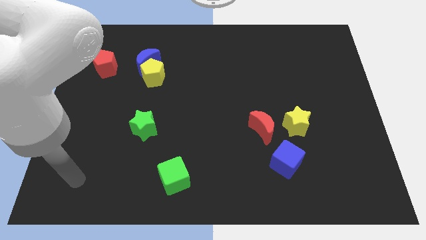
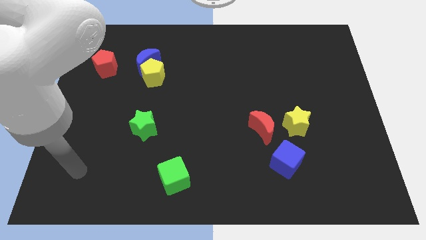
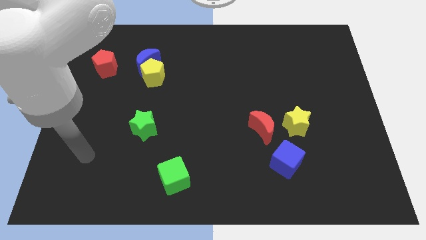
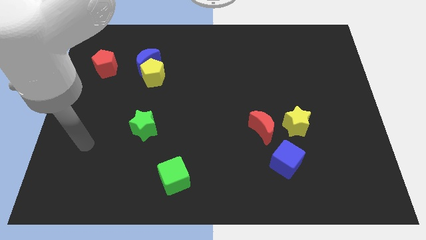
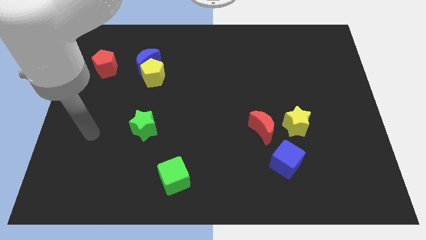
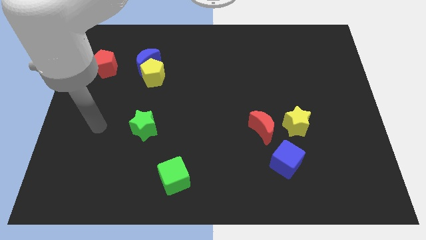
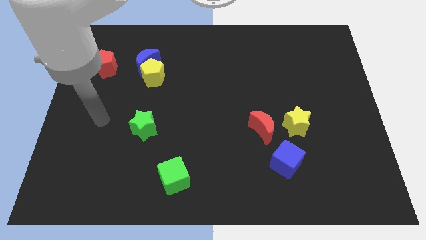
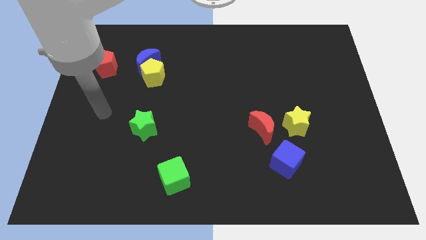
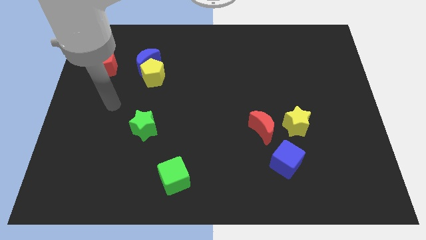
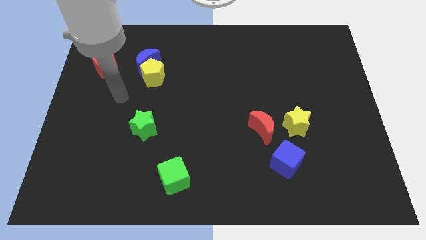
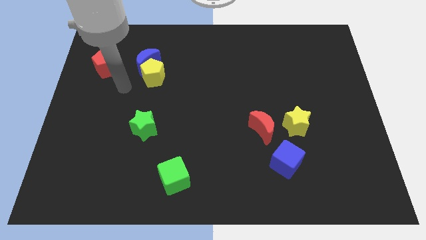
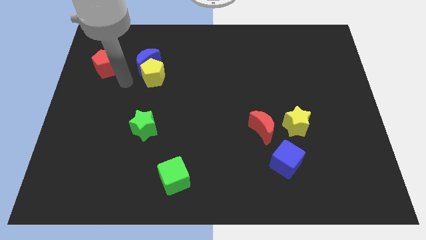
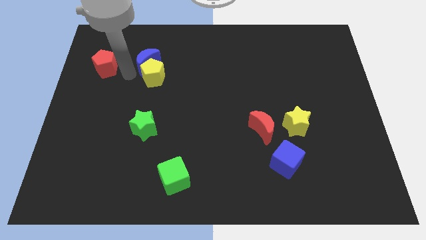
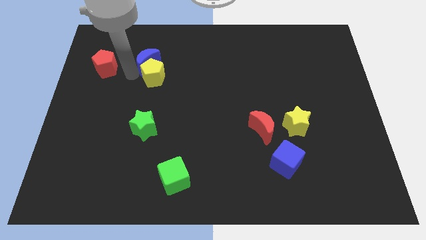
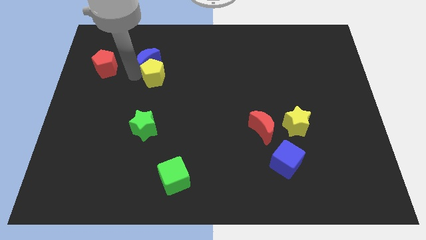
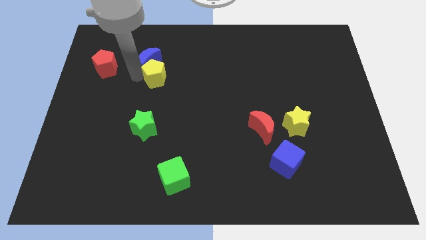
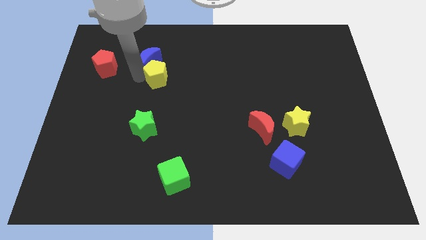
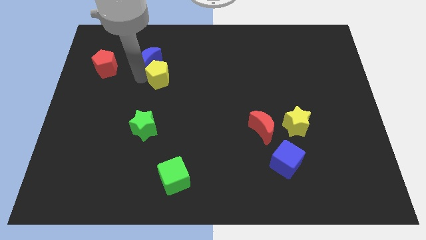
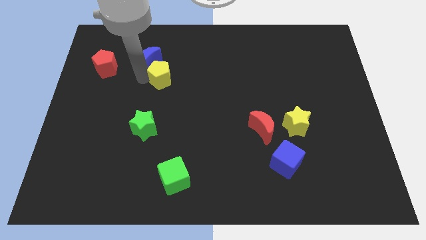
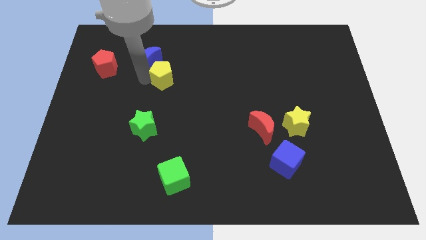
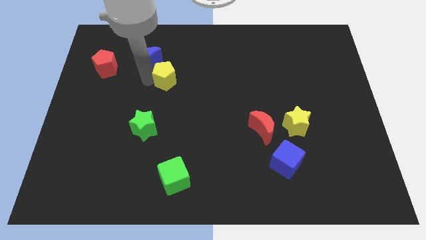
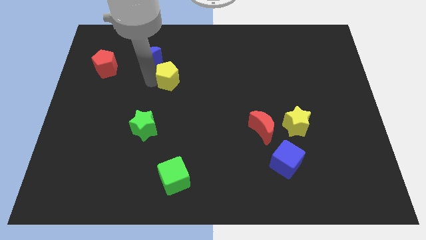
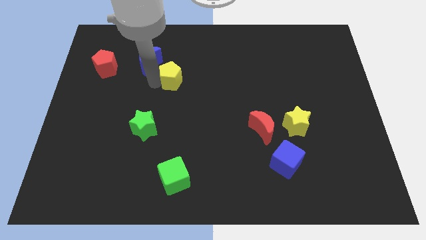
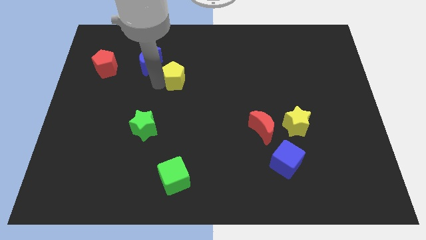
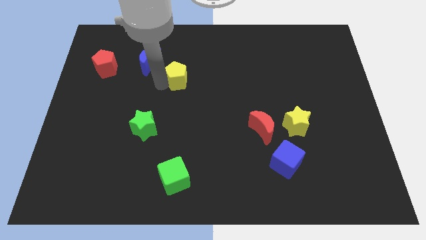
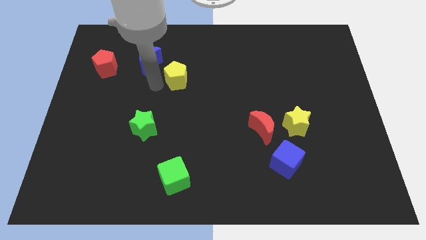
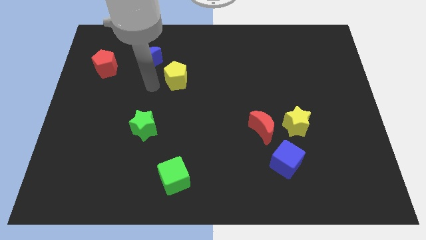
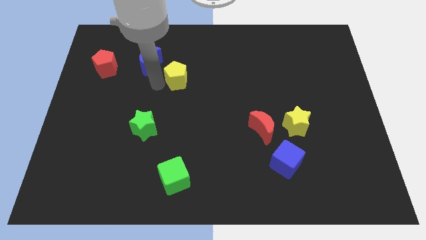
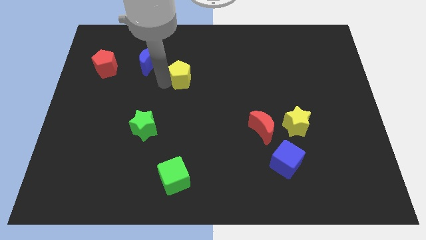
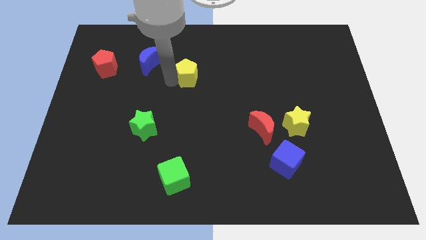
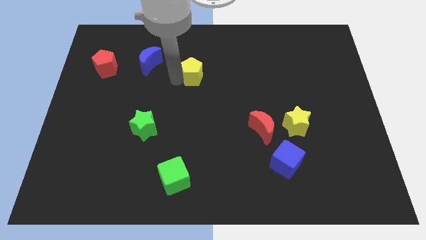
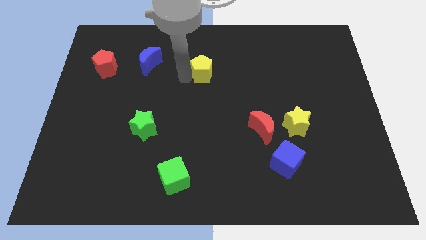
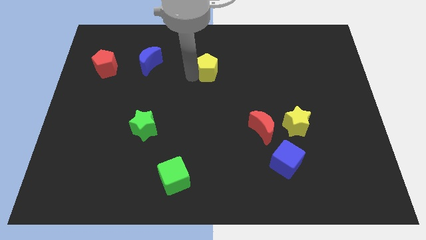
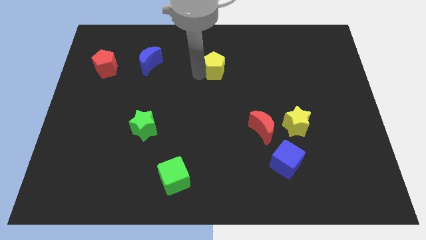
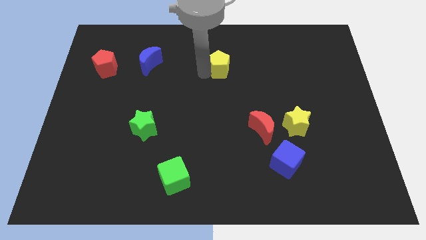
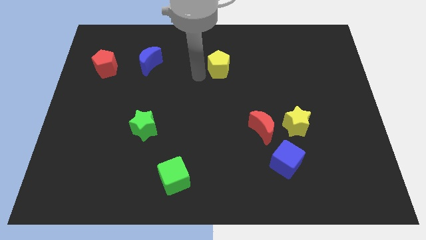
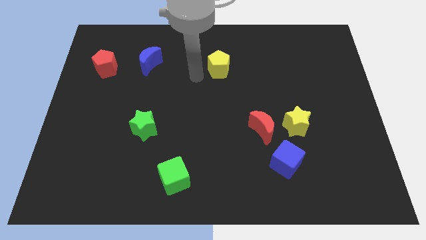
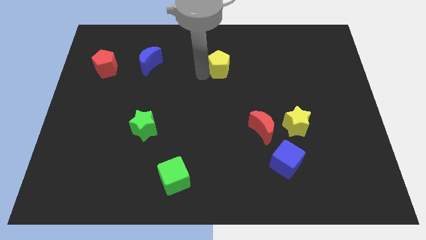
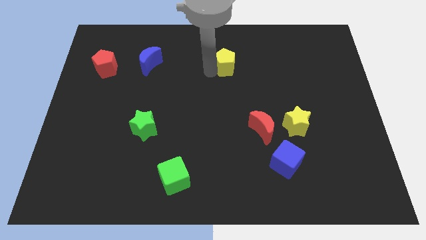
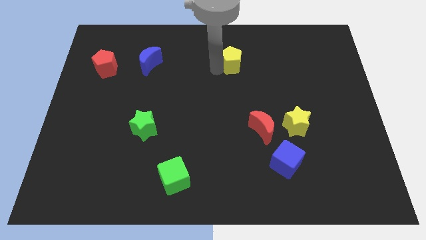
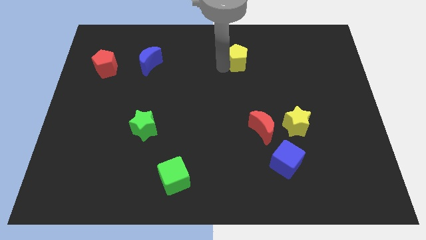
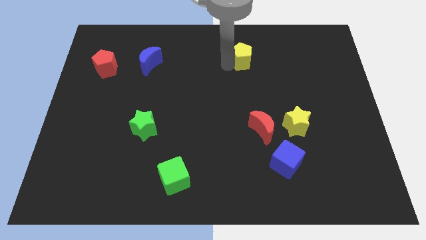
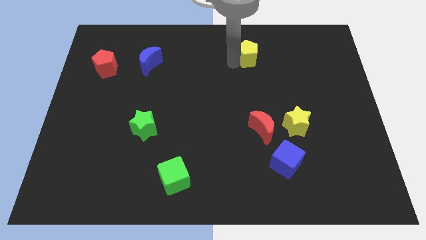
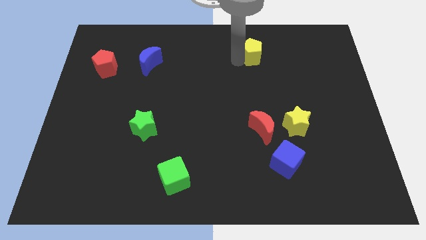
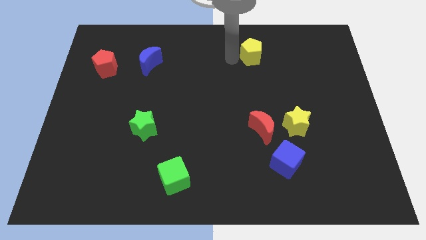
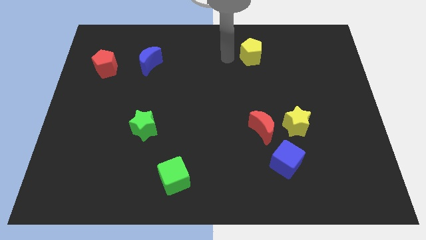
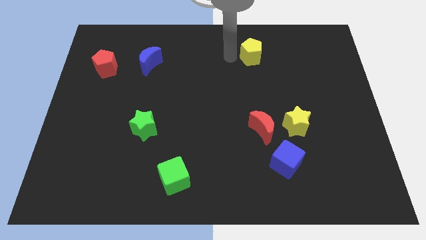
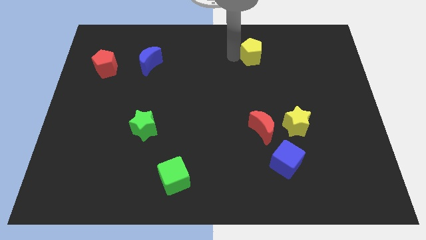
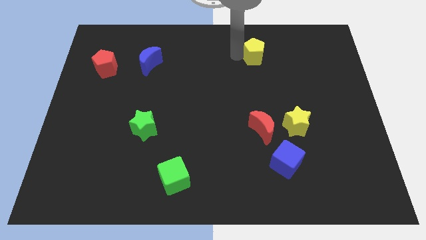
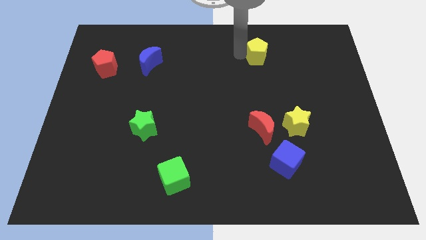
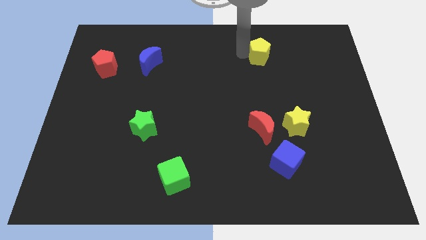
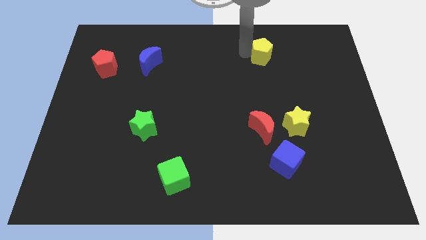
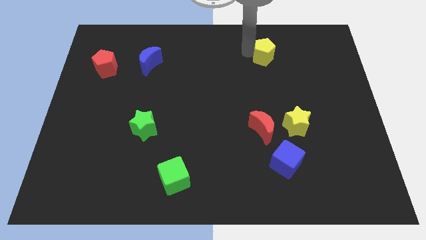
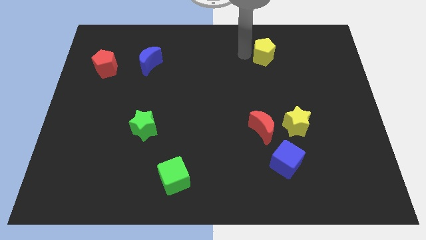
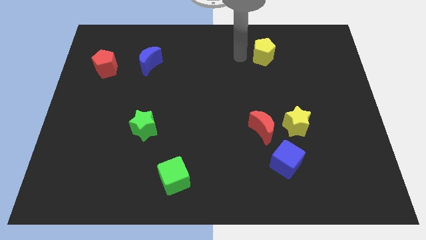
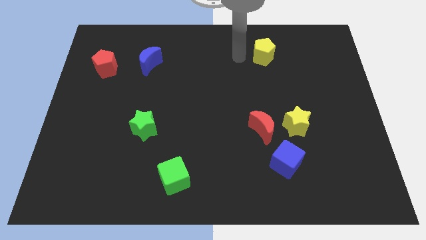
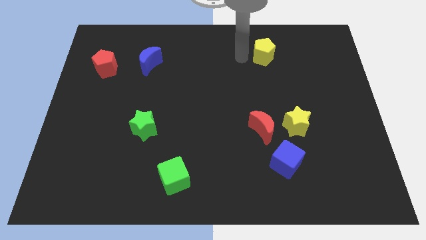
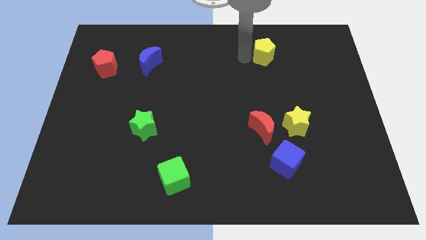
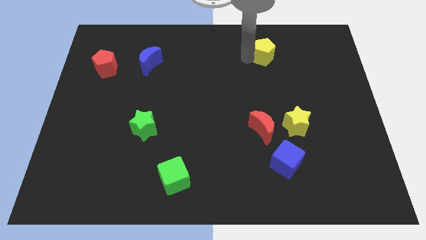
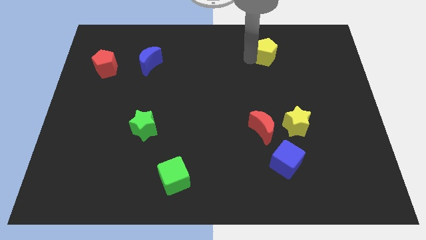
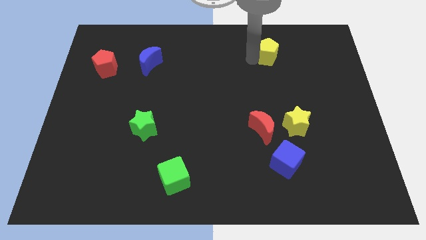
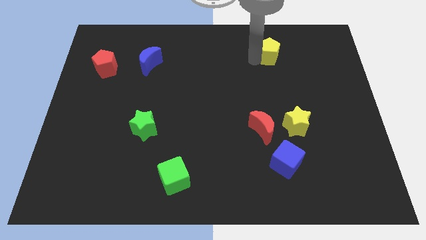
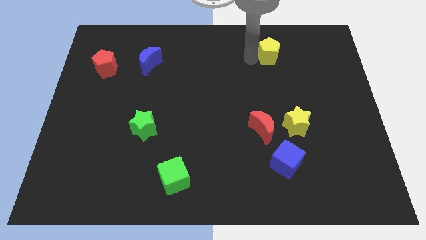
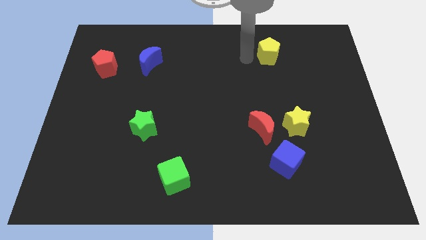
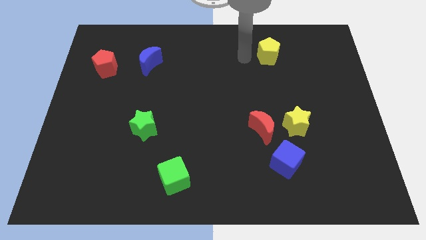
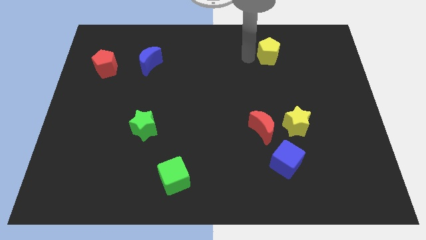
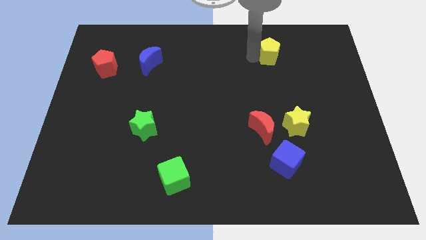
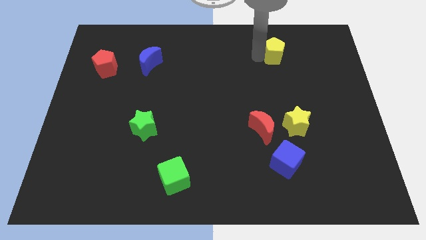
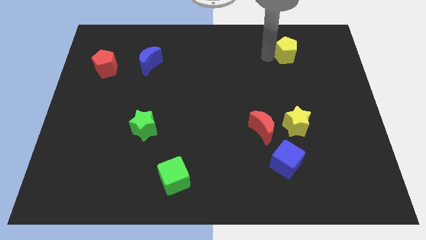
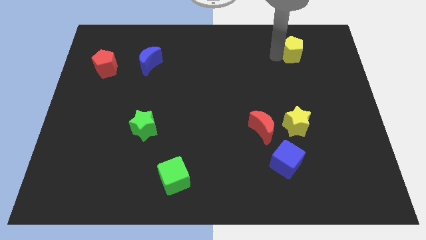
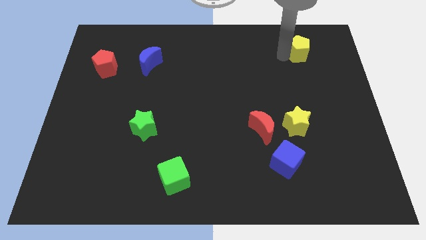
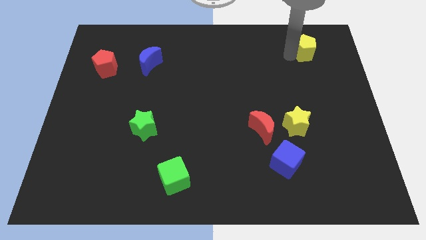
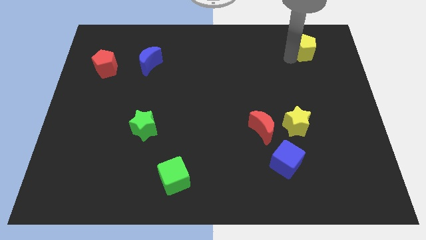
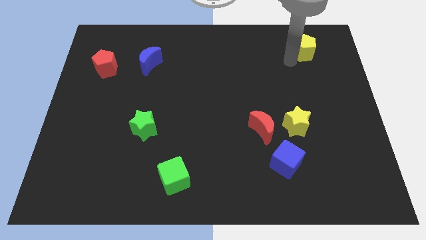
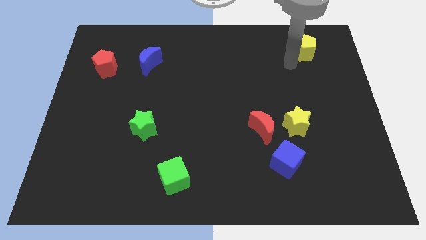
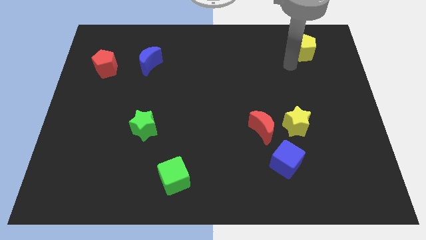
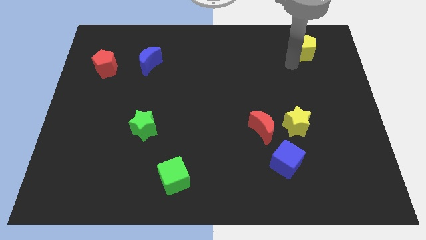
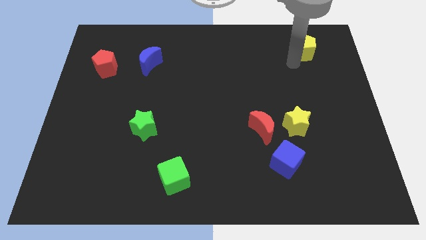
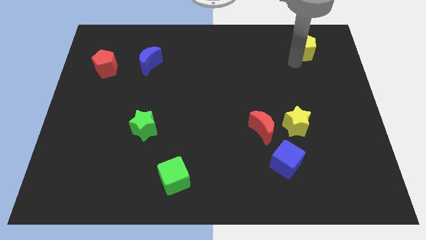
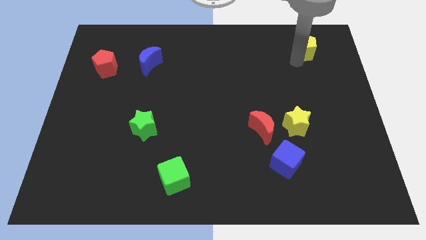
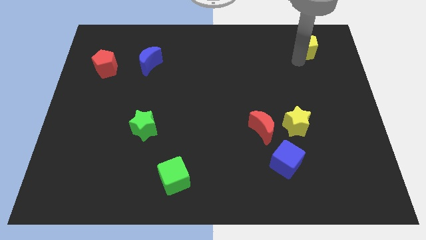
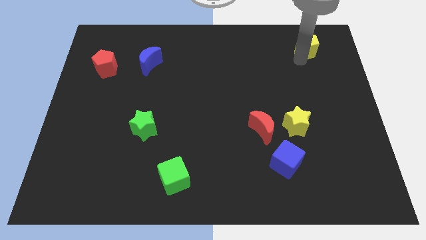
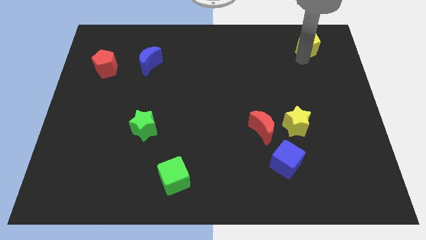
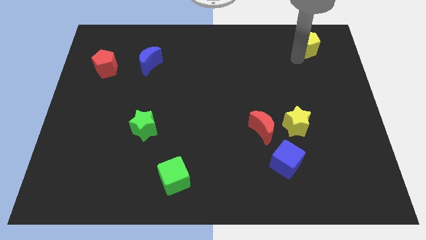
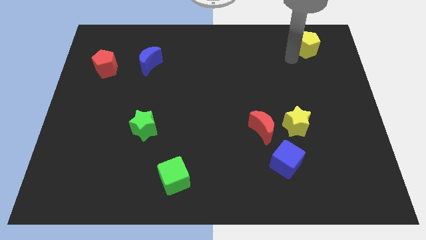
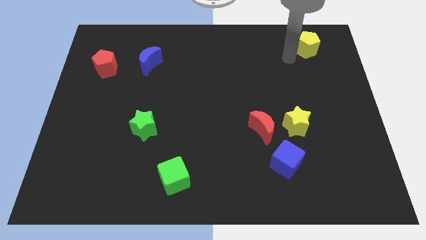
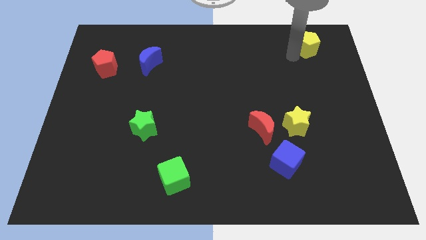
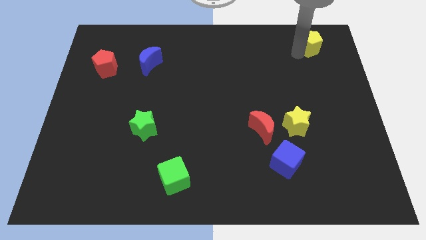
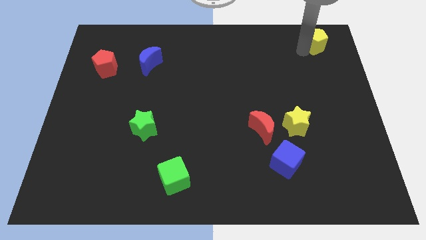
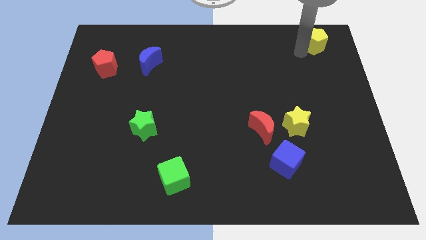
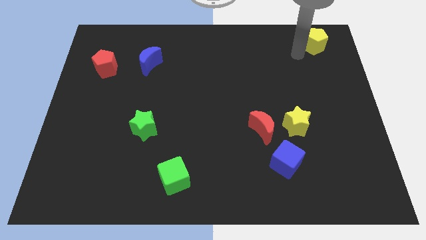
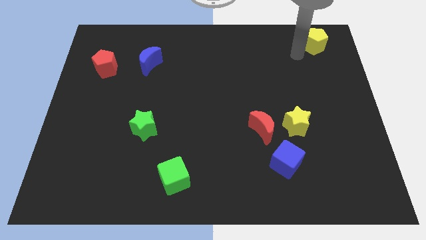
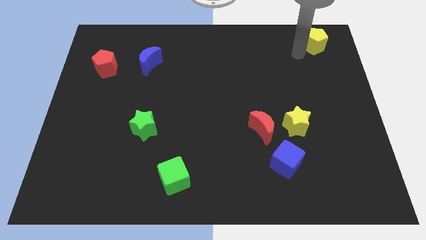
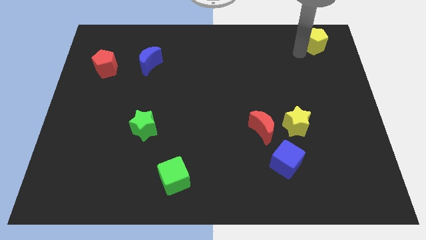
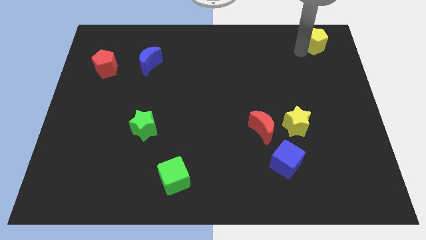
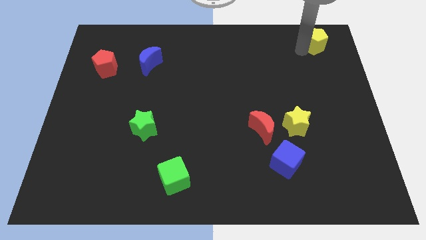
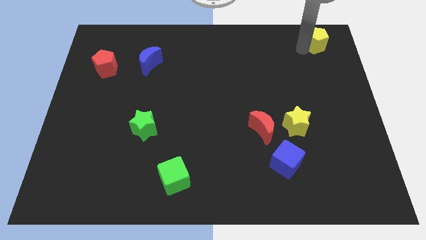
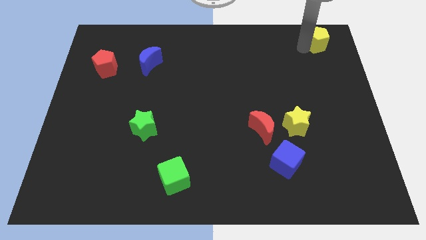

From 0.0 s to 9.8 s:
move the yellow pentagon to the upper right corner
